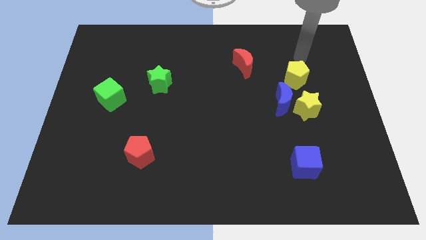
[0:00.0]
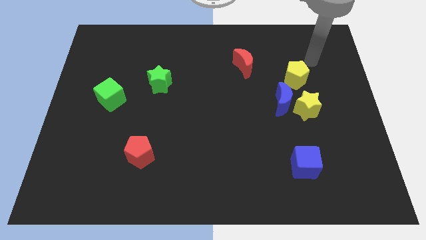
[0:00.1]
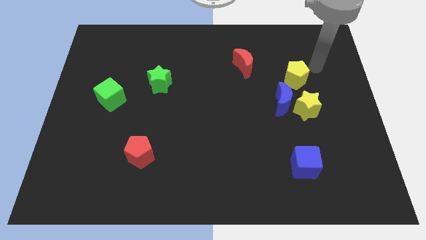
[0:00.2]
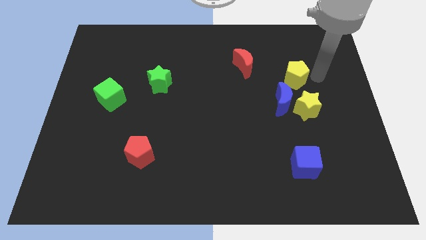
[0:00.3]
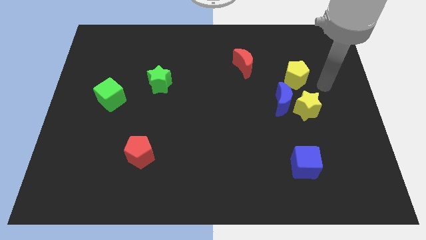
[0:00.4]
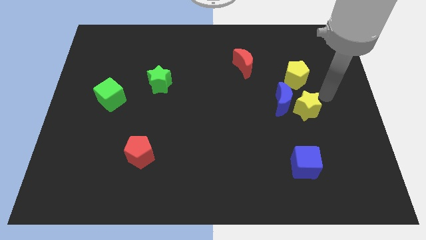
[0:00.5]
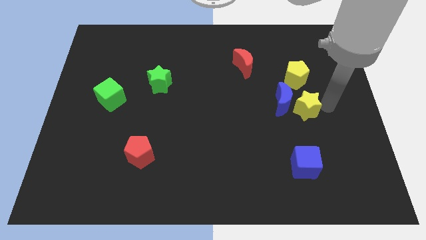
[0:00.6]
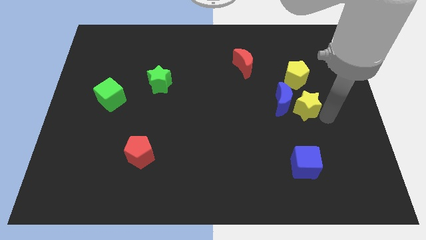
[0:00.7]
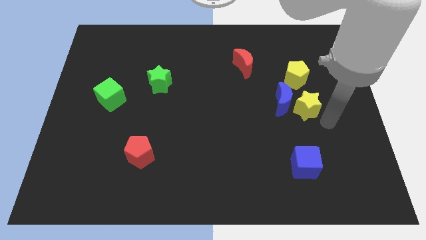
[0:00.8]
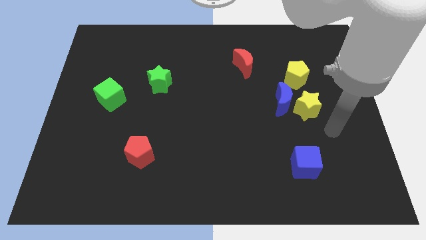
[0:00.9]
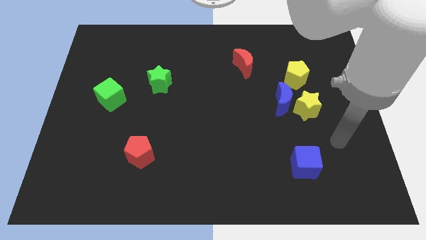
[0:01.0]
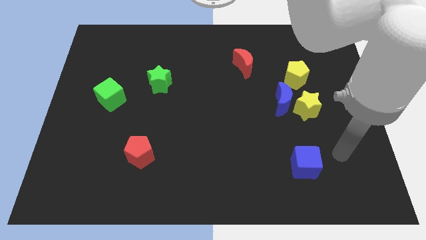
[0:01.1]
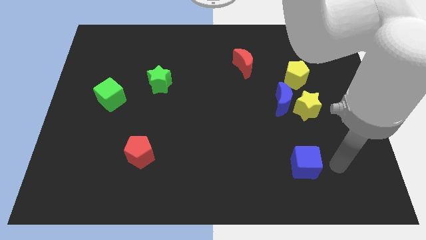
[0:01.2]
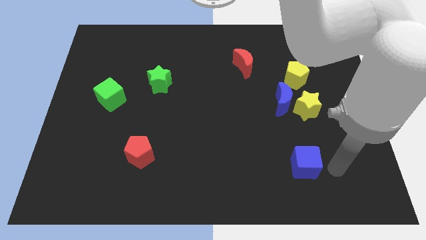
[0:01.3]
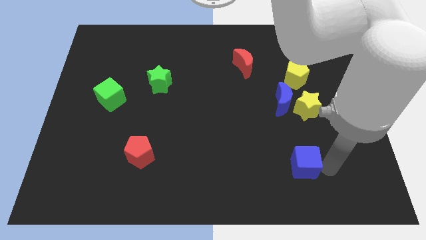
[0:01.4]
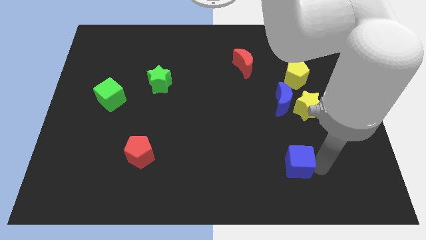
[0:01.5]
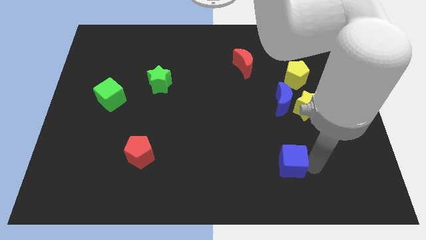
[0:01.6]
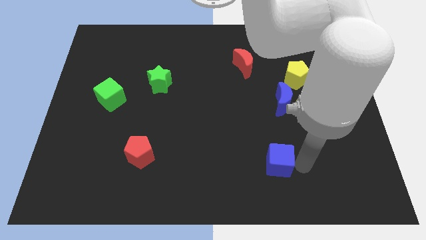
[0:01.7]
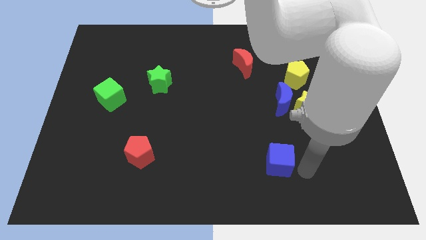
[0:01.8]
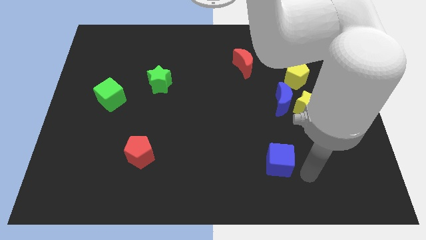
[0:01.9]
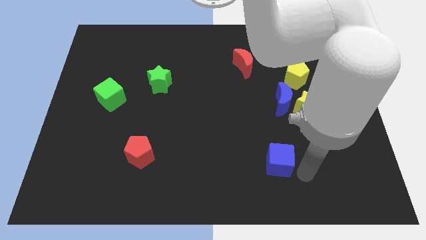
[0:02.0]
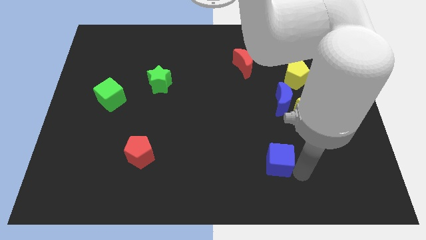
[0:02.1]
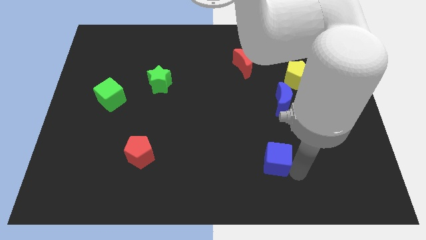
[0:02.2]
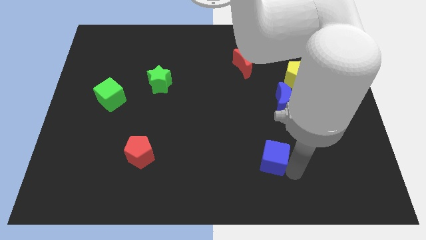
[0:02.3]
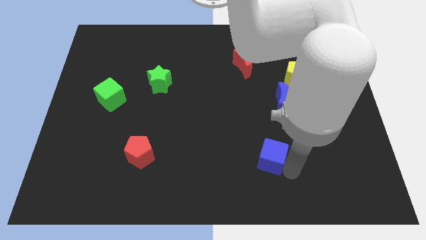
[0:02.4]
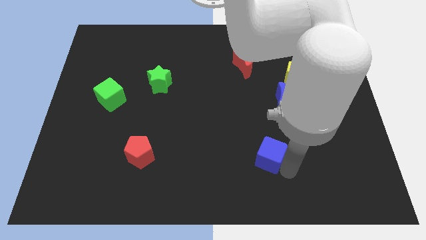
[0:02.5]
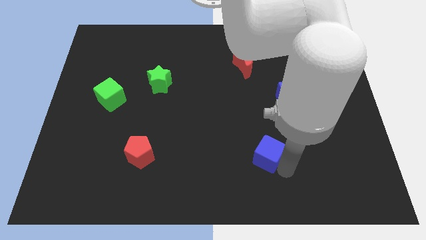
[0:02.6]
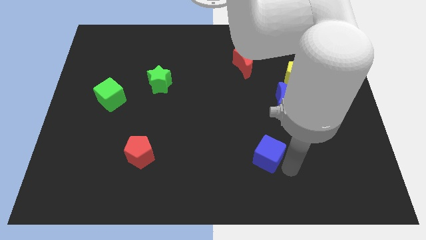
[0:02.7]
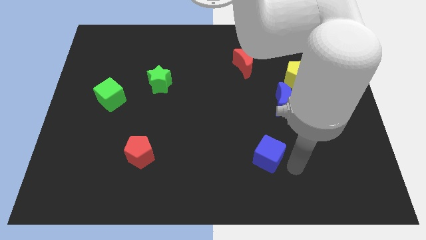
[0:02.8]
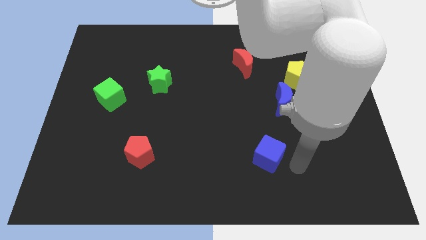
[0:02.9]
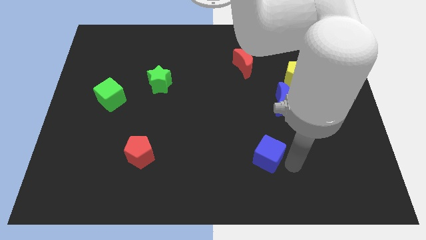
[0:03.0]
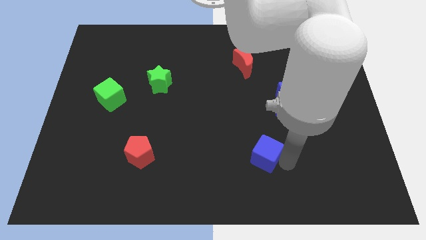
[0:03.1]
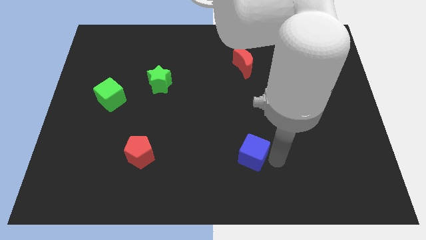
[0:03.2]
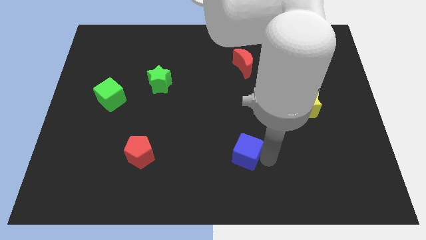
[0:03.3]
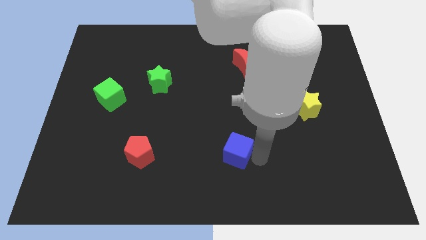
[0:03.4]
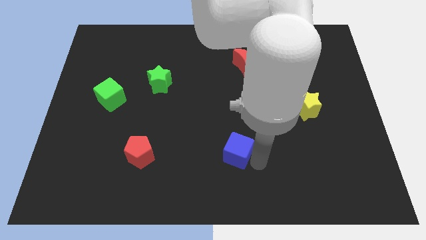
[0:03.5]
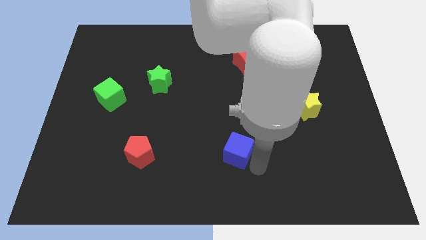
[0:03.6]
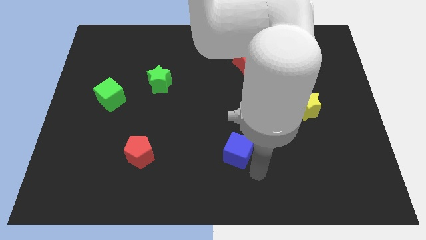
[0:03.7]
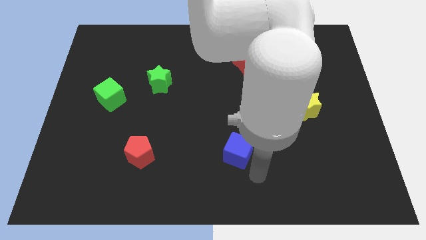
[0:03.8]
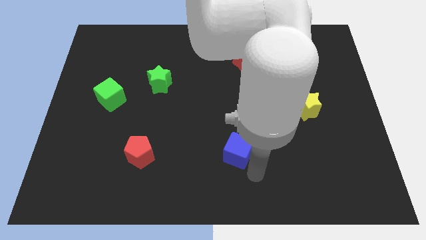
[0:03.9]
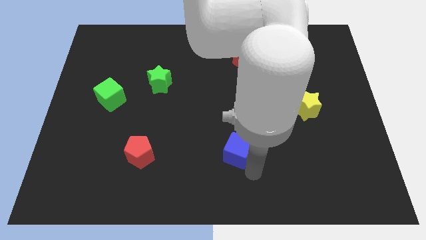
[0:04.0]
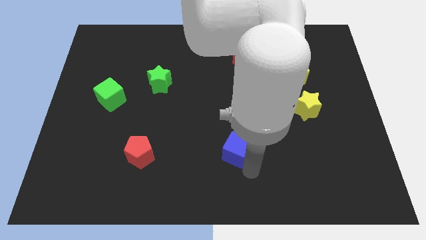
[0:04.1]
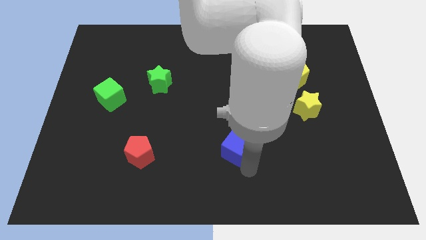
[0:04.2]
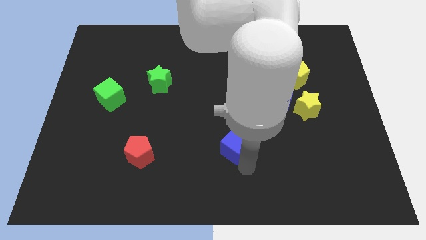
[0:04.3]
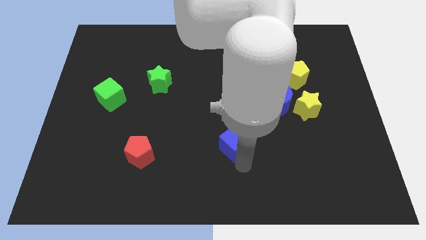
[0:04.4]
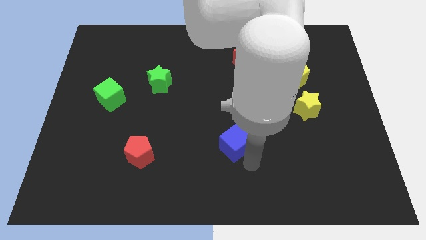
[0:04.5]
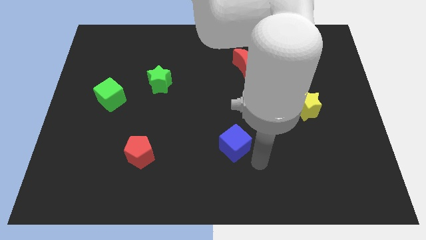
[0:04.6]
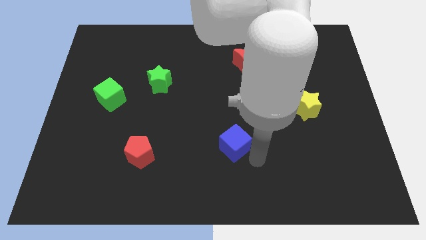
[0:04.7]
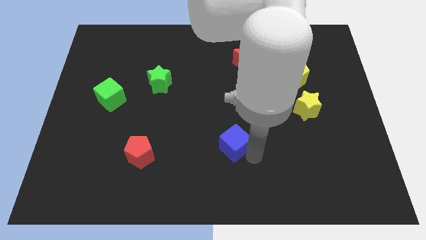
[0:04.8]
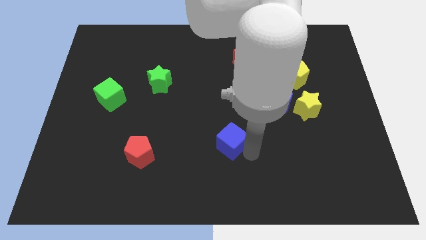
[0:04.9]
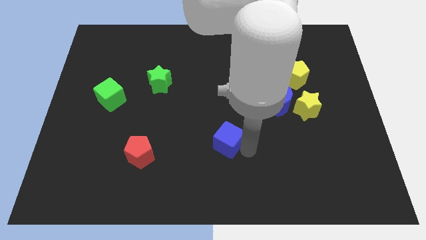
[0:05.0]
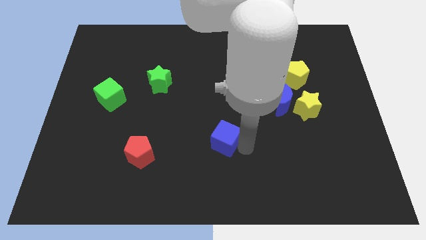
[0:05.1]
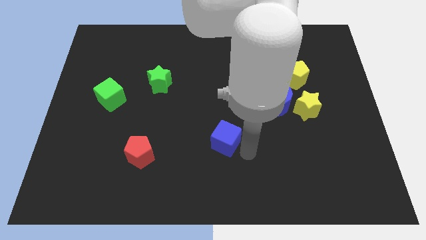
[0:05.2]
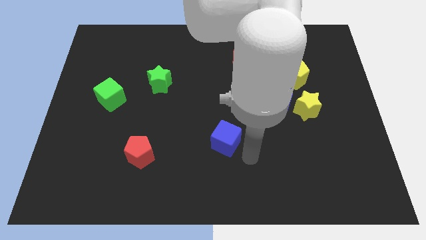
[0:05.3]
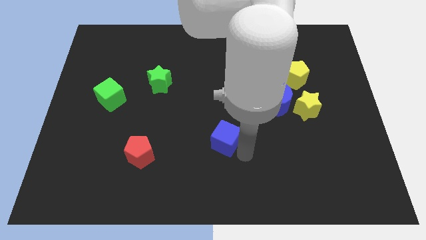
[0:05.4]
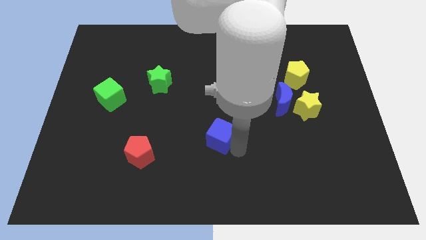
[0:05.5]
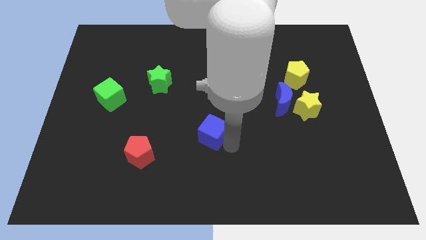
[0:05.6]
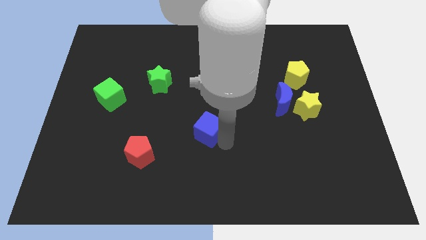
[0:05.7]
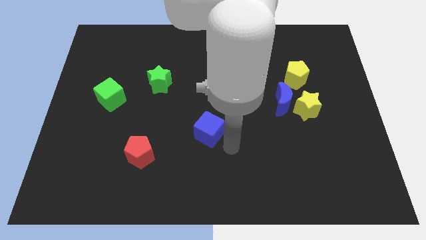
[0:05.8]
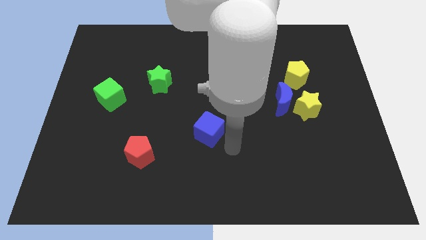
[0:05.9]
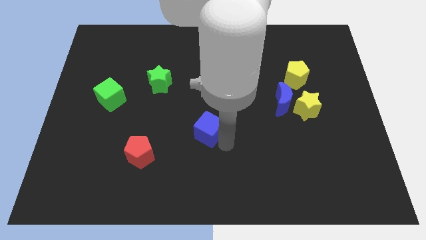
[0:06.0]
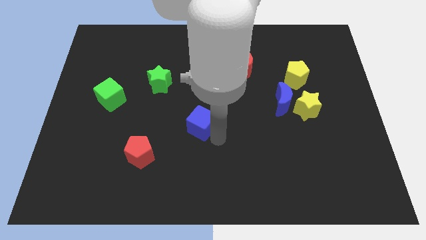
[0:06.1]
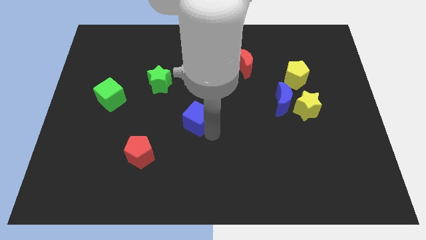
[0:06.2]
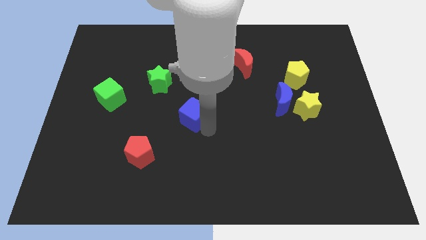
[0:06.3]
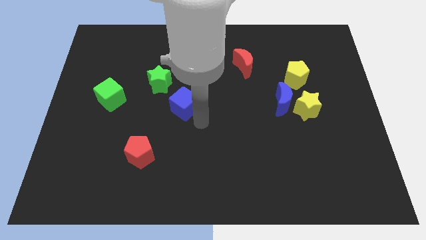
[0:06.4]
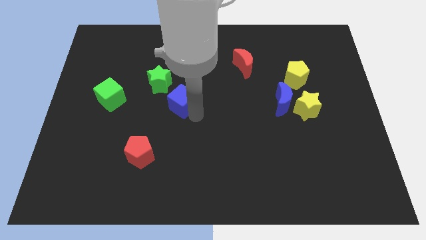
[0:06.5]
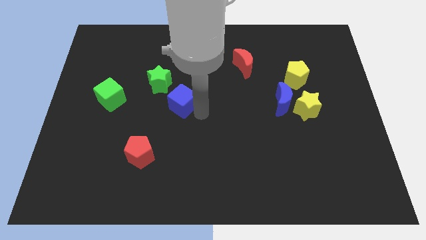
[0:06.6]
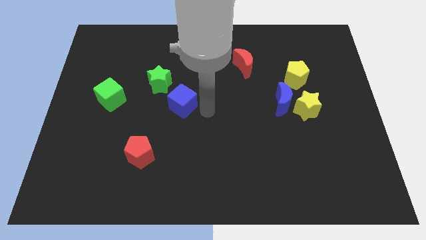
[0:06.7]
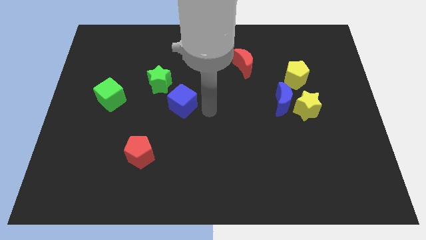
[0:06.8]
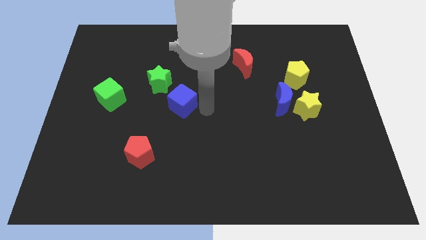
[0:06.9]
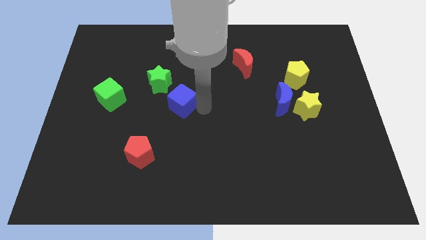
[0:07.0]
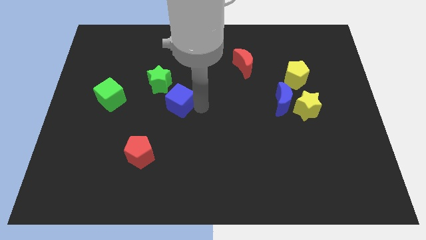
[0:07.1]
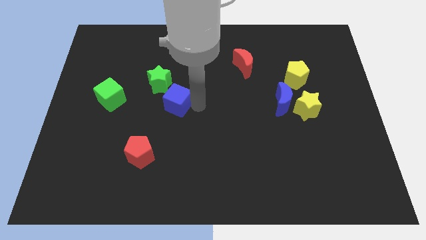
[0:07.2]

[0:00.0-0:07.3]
slide the blue cube to the right side of the green cube
